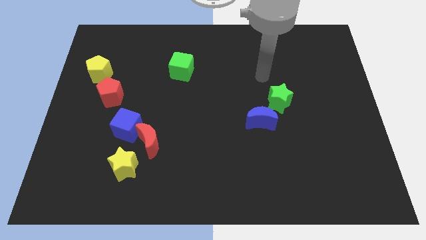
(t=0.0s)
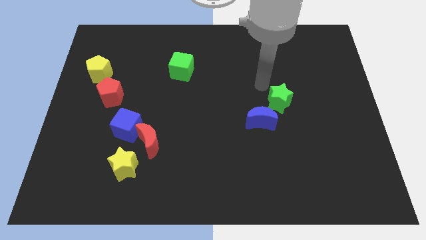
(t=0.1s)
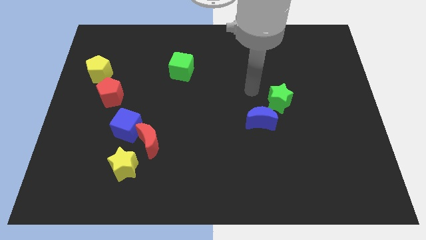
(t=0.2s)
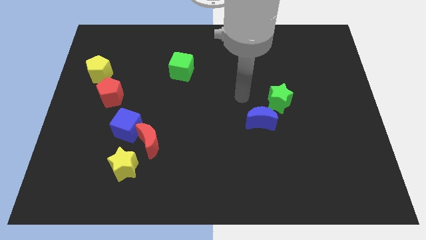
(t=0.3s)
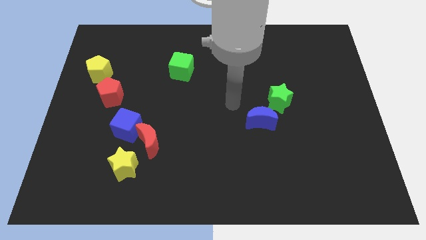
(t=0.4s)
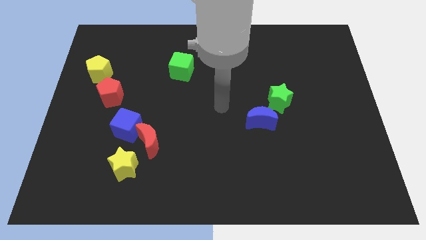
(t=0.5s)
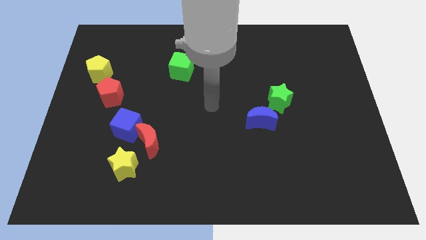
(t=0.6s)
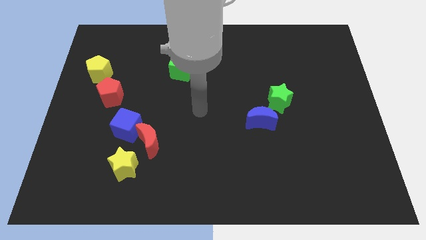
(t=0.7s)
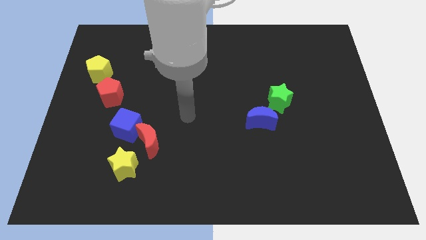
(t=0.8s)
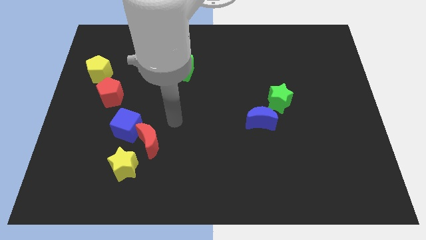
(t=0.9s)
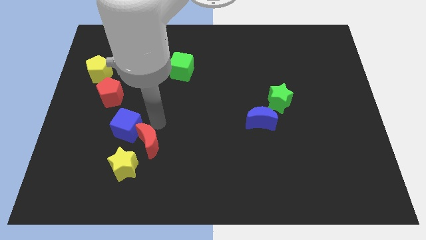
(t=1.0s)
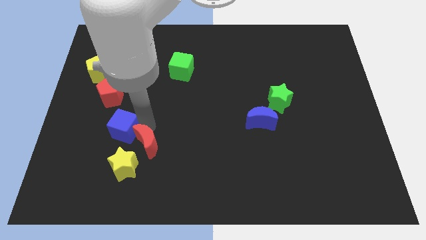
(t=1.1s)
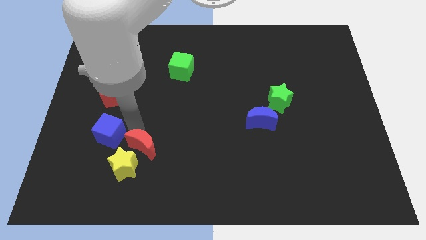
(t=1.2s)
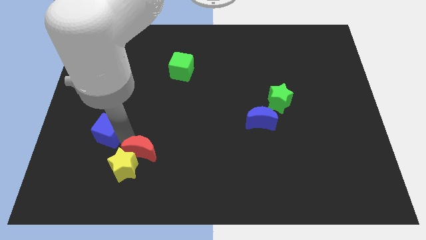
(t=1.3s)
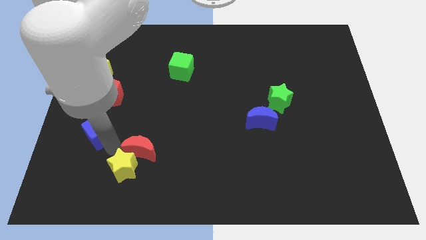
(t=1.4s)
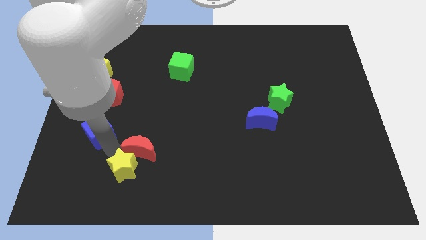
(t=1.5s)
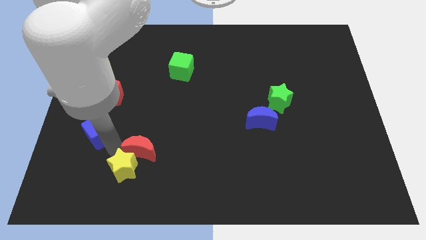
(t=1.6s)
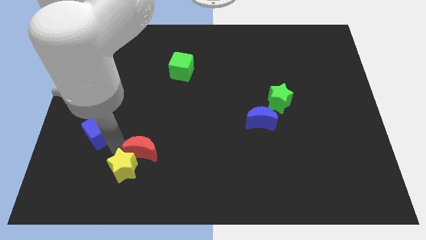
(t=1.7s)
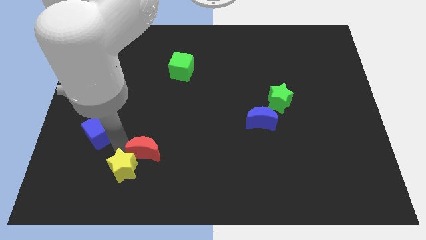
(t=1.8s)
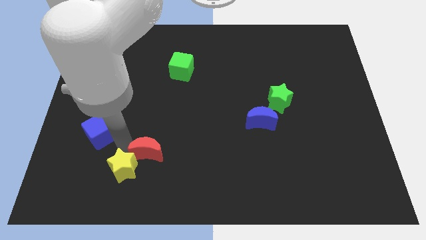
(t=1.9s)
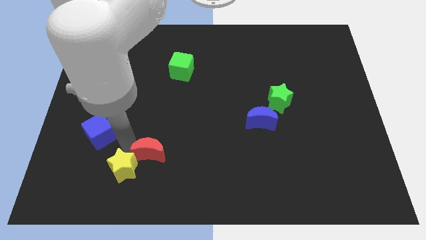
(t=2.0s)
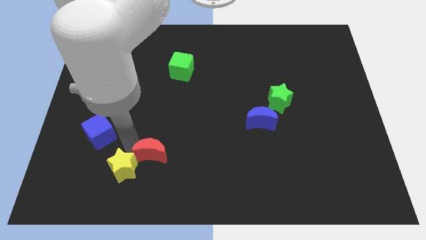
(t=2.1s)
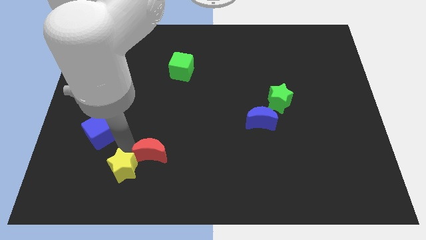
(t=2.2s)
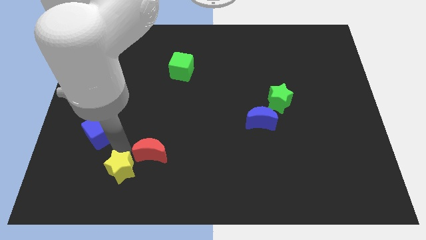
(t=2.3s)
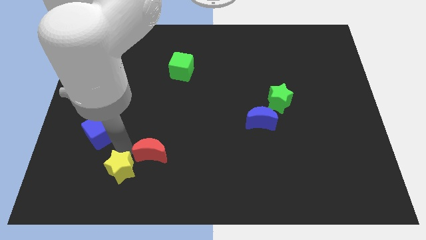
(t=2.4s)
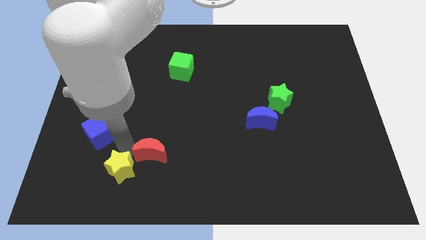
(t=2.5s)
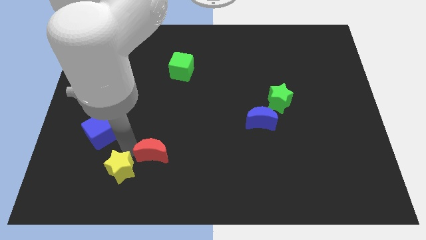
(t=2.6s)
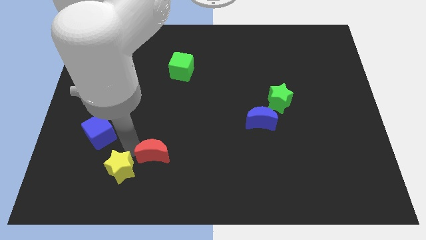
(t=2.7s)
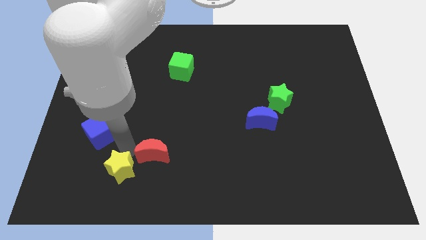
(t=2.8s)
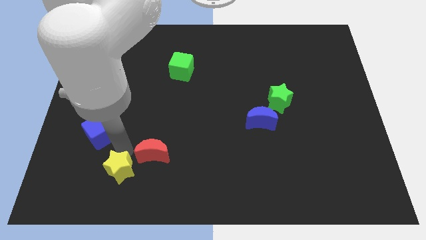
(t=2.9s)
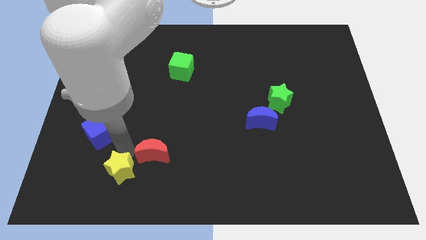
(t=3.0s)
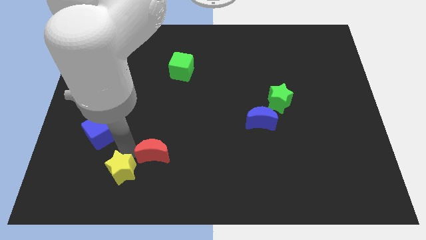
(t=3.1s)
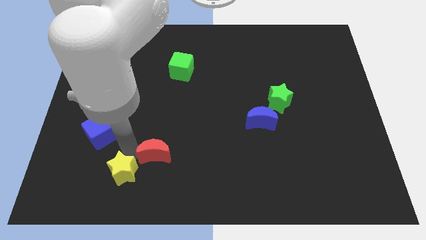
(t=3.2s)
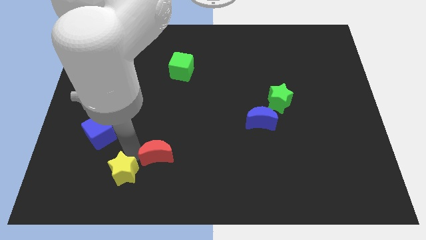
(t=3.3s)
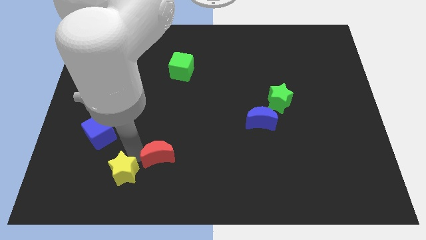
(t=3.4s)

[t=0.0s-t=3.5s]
pull the red moon apart from the blue cube and yellow star

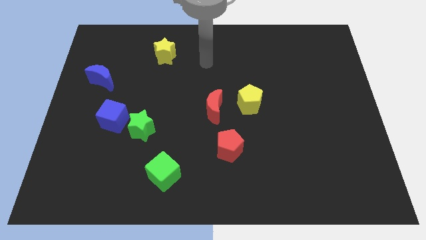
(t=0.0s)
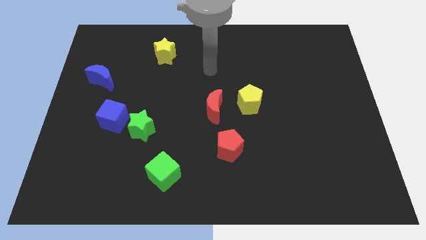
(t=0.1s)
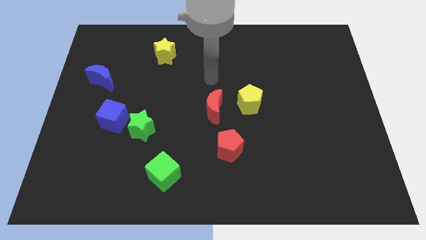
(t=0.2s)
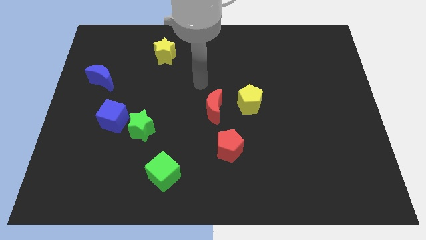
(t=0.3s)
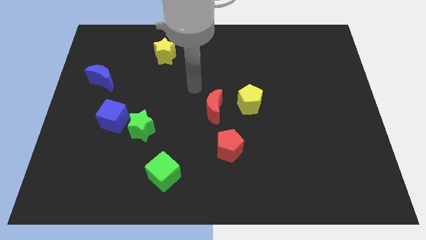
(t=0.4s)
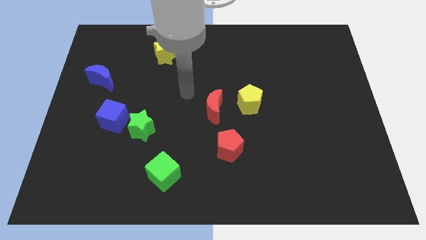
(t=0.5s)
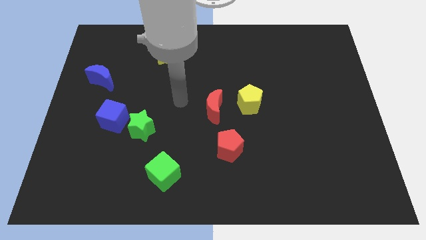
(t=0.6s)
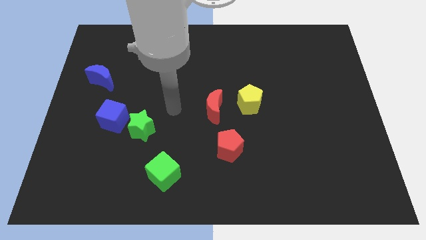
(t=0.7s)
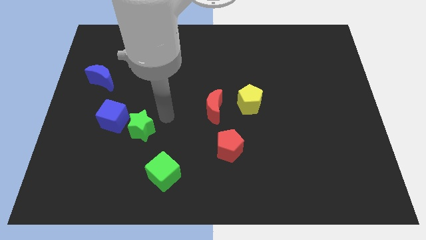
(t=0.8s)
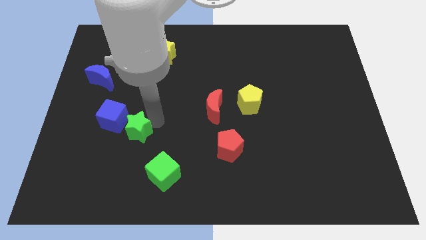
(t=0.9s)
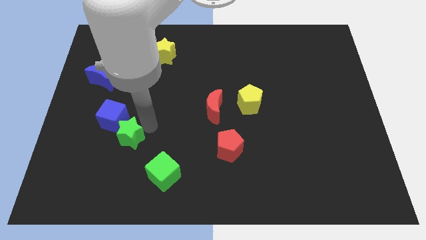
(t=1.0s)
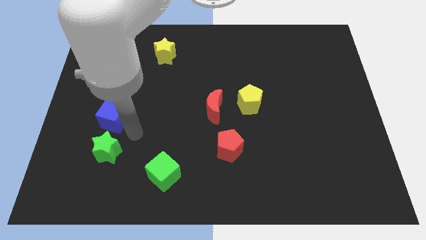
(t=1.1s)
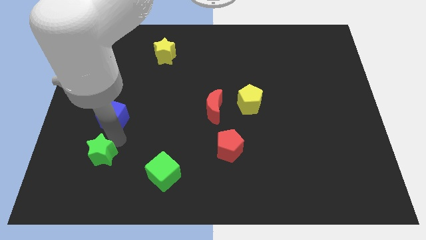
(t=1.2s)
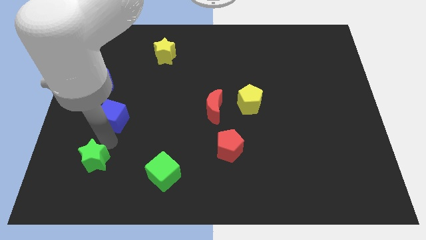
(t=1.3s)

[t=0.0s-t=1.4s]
separate the blue cube from the green star

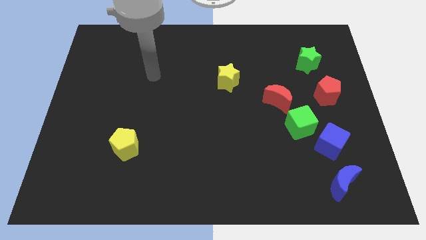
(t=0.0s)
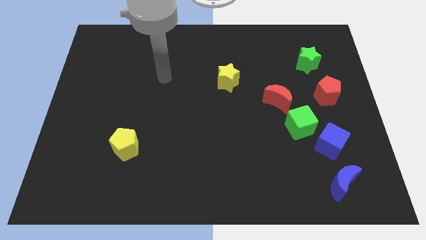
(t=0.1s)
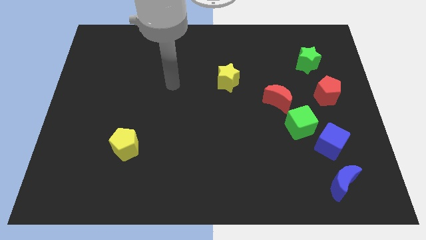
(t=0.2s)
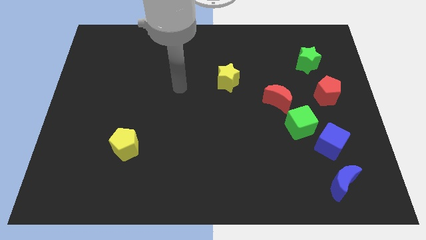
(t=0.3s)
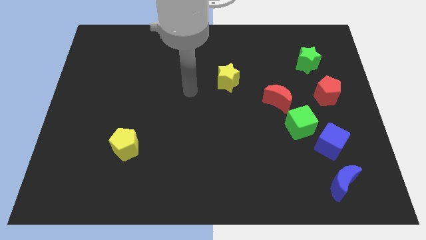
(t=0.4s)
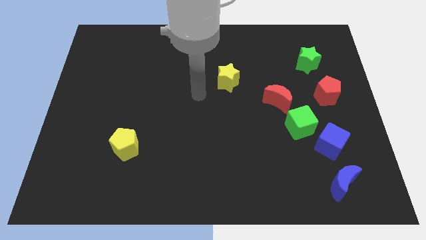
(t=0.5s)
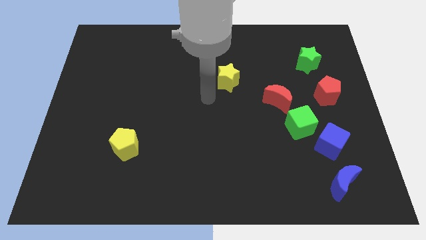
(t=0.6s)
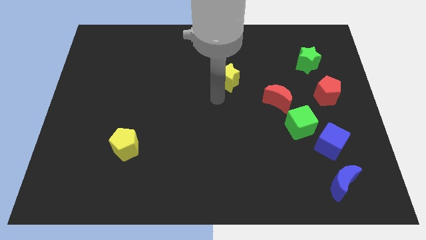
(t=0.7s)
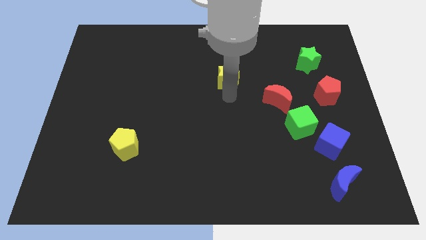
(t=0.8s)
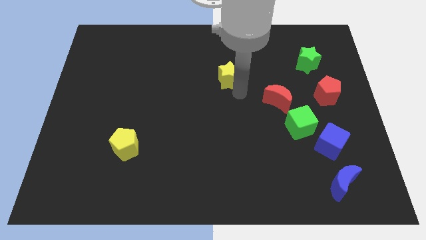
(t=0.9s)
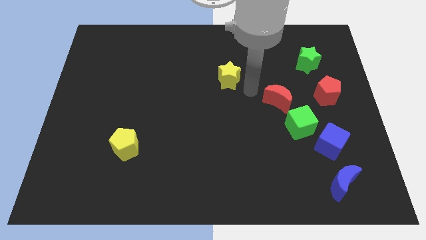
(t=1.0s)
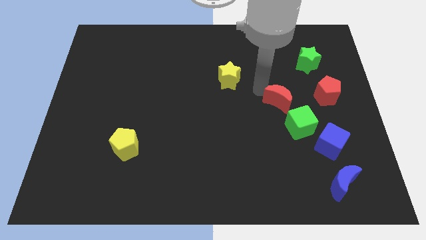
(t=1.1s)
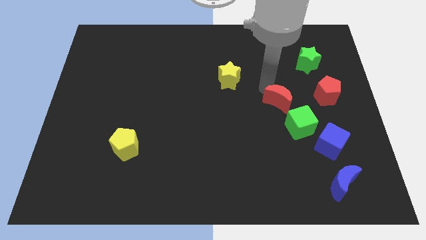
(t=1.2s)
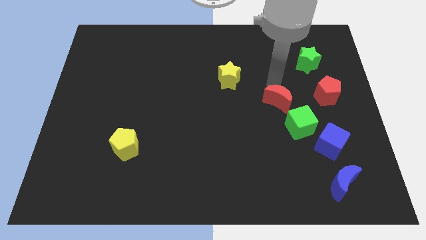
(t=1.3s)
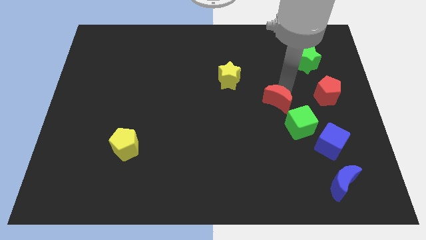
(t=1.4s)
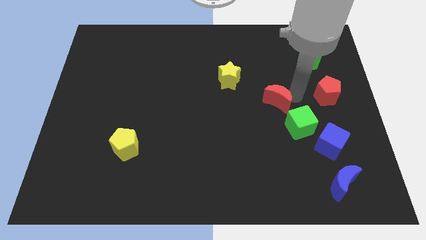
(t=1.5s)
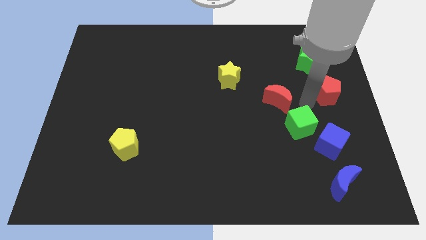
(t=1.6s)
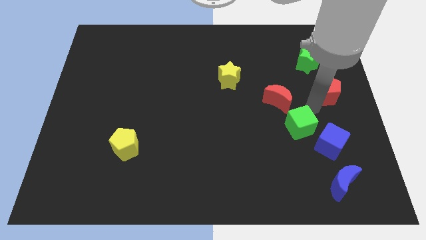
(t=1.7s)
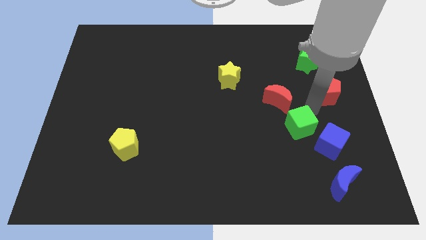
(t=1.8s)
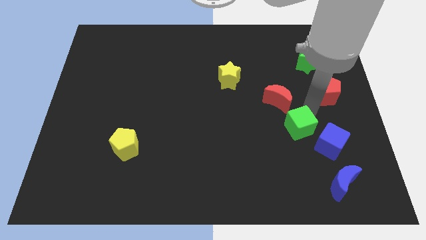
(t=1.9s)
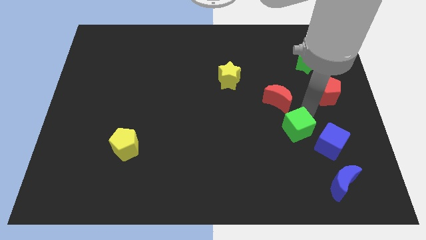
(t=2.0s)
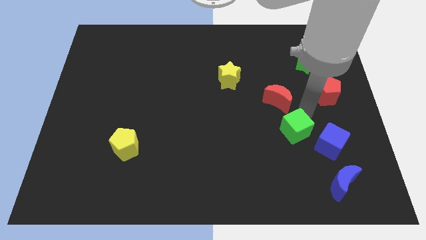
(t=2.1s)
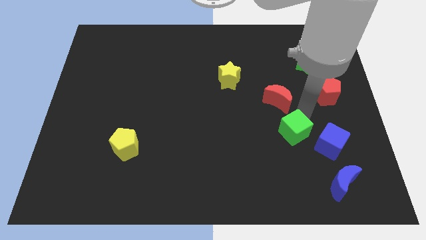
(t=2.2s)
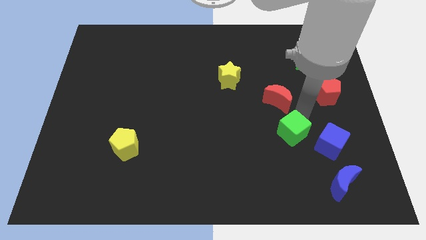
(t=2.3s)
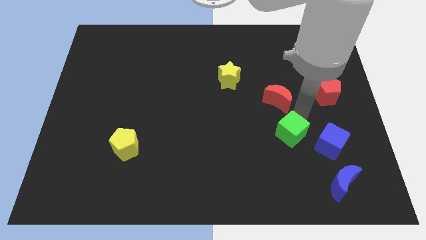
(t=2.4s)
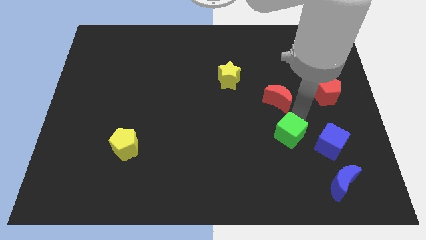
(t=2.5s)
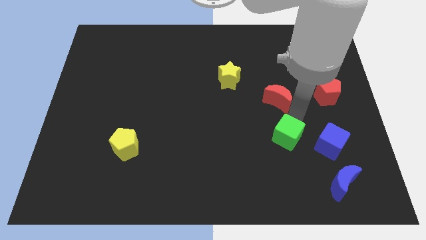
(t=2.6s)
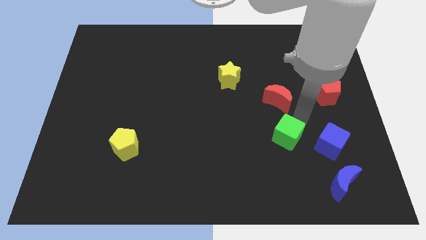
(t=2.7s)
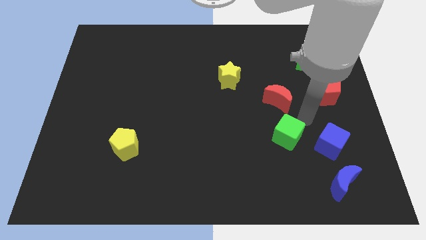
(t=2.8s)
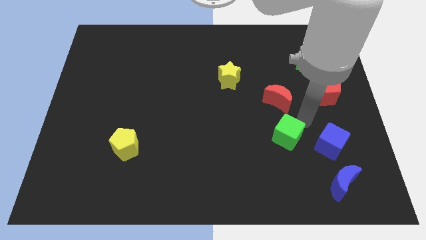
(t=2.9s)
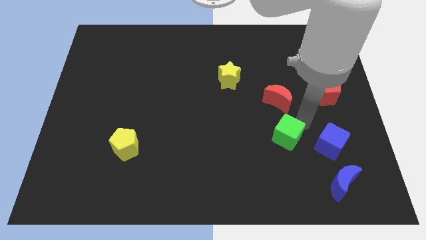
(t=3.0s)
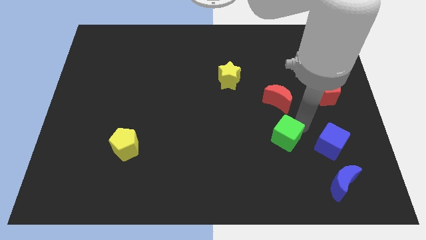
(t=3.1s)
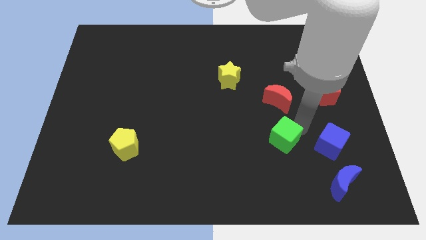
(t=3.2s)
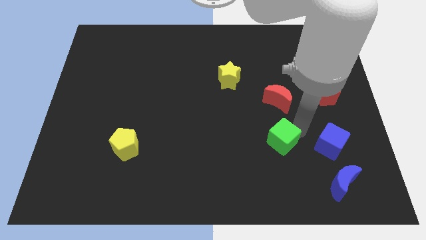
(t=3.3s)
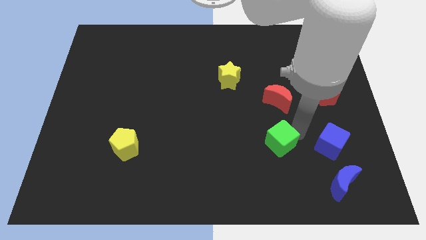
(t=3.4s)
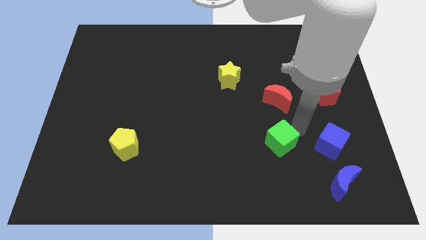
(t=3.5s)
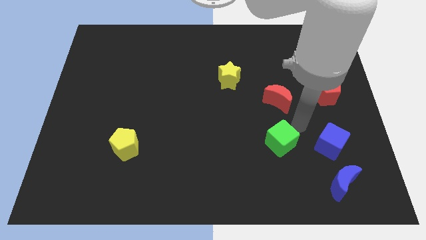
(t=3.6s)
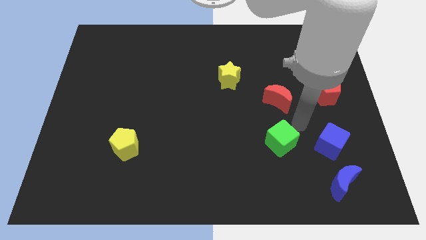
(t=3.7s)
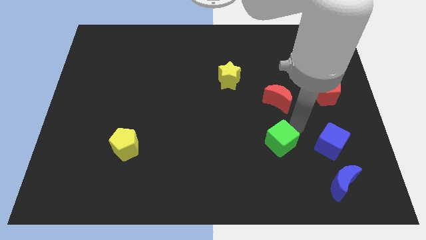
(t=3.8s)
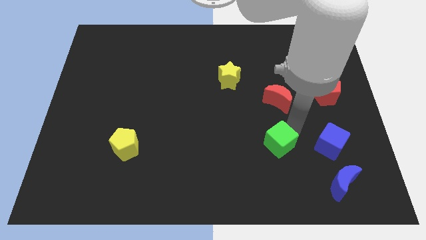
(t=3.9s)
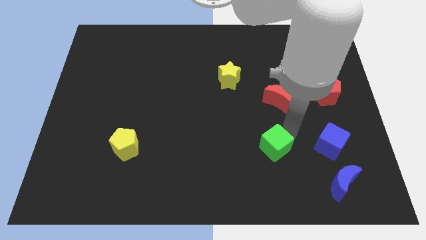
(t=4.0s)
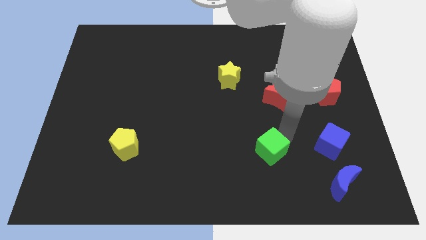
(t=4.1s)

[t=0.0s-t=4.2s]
move the green cube away from the blue cube and red moon

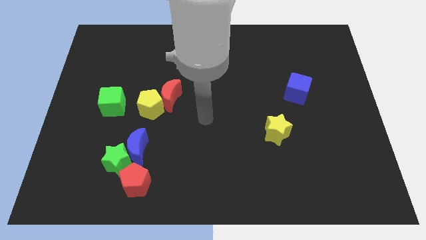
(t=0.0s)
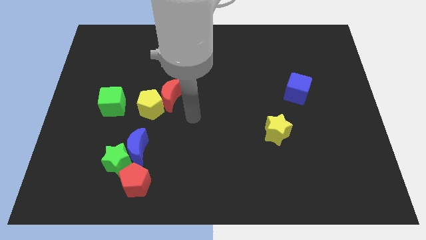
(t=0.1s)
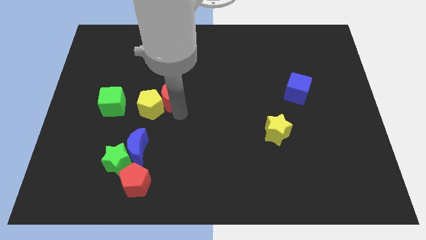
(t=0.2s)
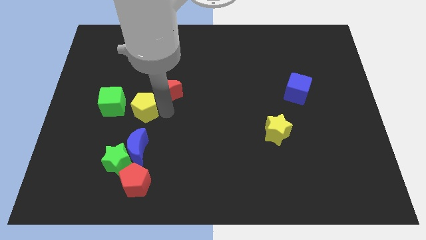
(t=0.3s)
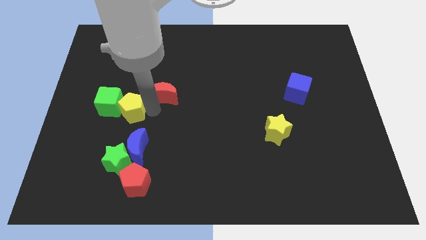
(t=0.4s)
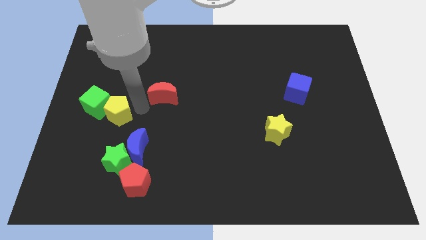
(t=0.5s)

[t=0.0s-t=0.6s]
move the red moon away from the yellow pentagon
